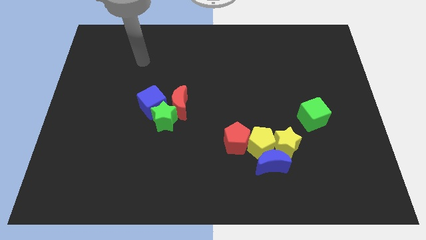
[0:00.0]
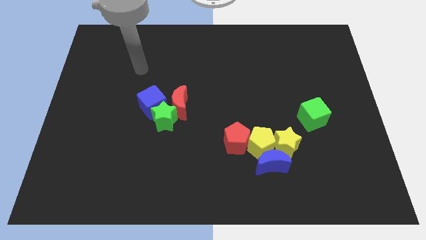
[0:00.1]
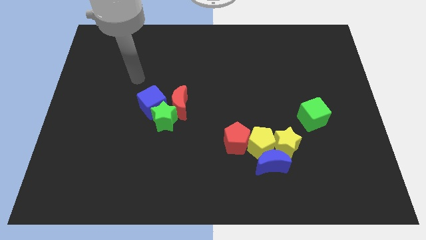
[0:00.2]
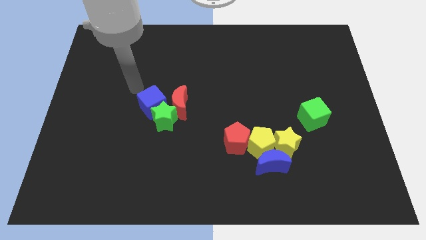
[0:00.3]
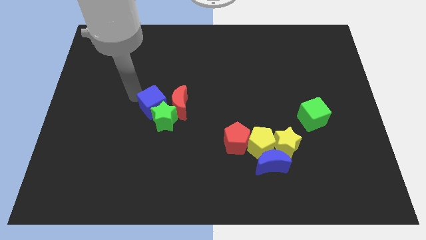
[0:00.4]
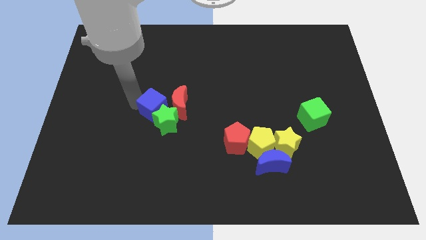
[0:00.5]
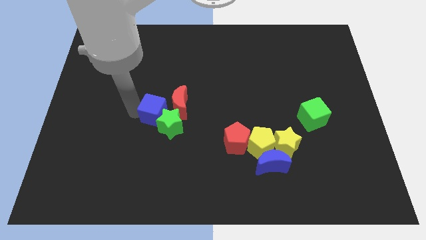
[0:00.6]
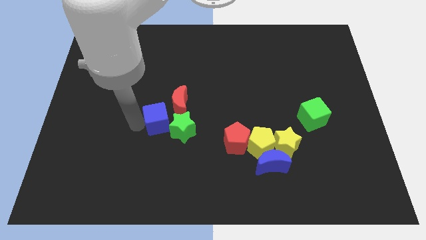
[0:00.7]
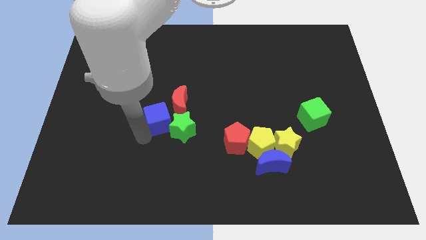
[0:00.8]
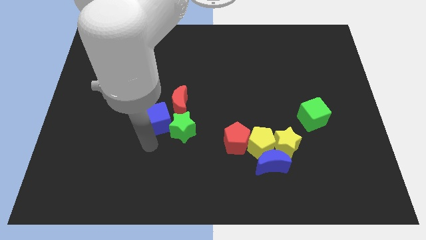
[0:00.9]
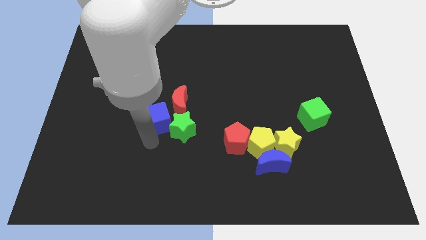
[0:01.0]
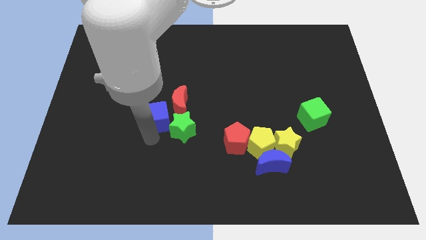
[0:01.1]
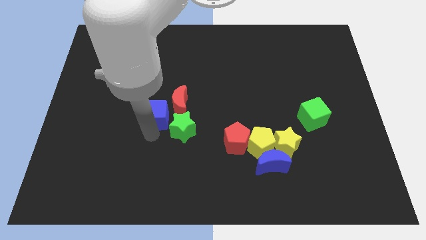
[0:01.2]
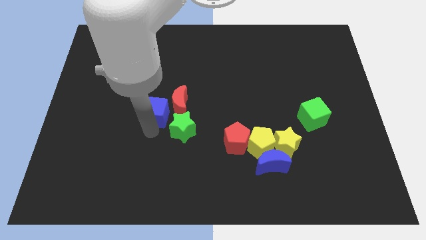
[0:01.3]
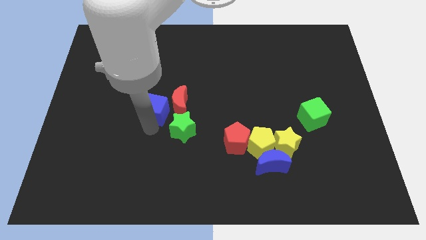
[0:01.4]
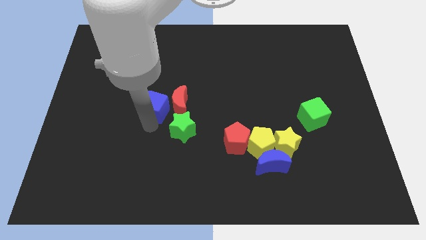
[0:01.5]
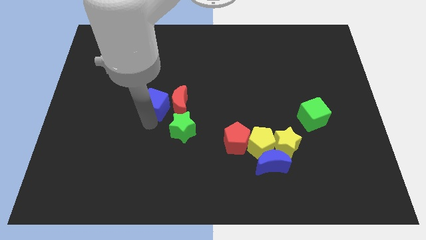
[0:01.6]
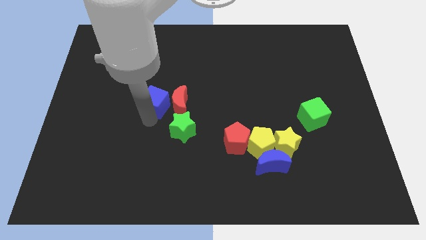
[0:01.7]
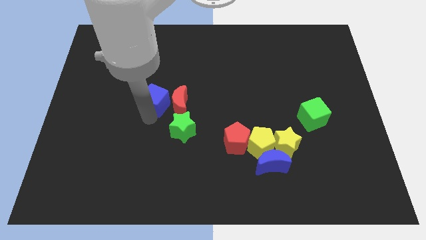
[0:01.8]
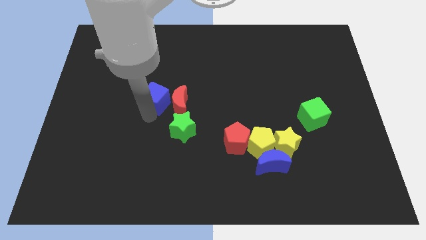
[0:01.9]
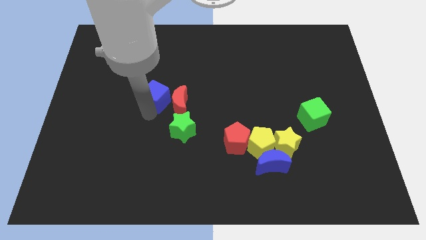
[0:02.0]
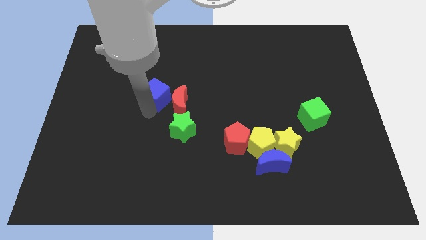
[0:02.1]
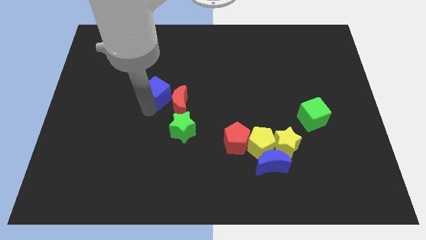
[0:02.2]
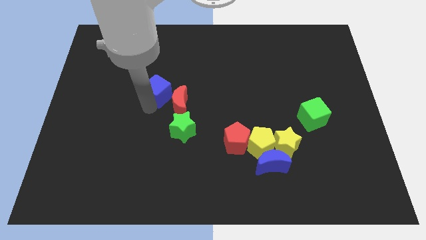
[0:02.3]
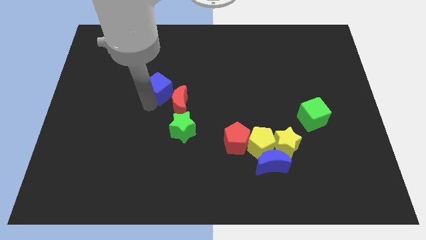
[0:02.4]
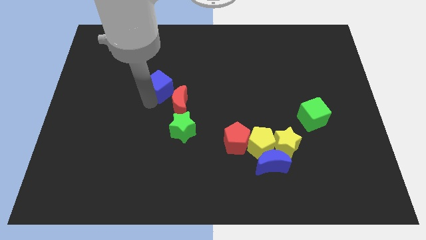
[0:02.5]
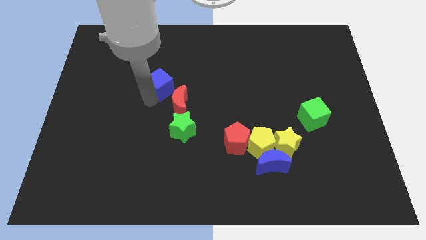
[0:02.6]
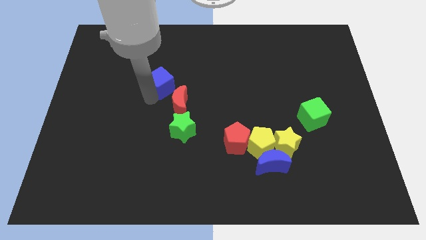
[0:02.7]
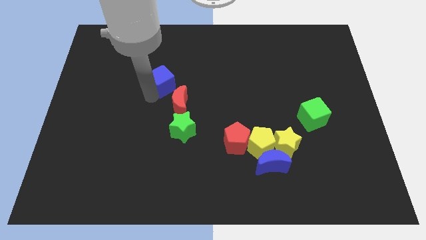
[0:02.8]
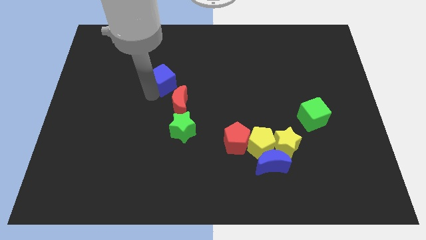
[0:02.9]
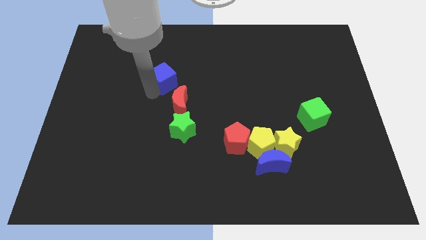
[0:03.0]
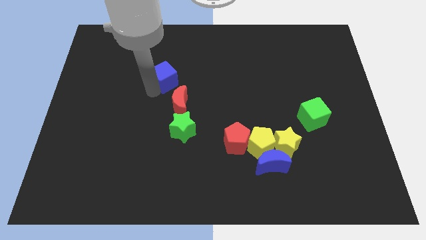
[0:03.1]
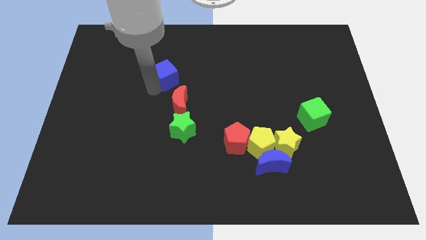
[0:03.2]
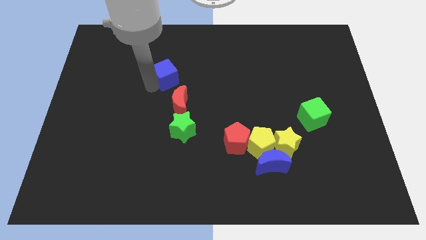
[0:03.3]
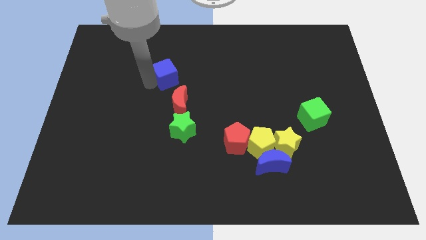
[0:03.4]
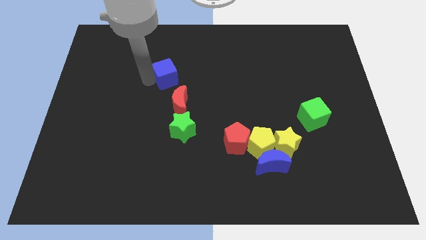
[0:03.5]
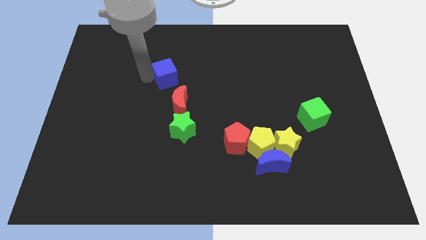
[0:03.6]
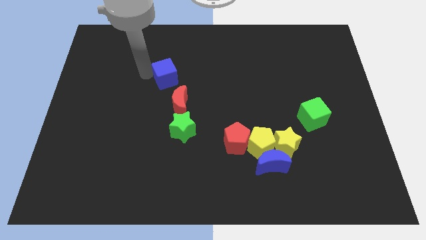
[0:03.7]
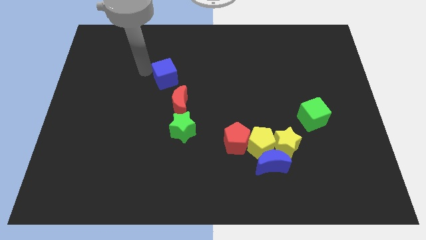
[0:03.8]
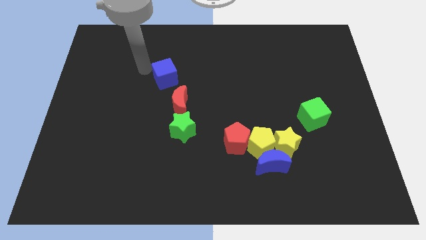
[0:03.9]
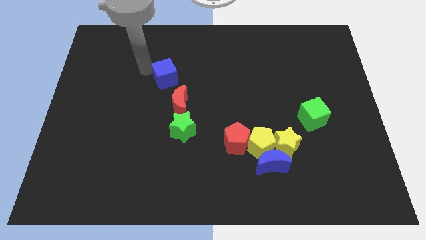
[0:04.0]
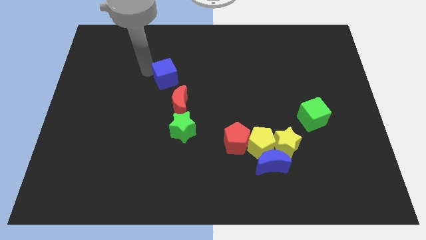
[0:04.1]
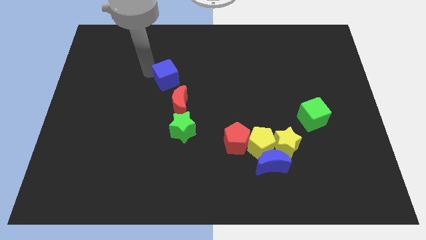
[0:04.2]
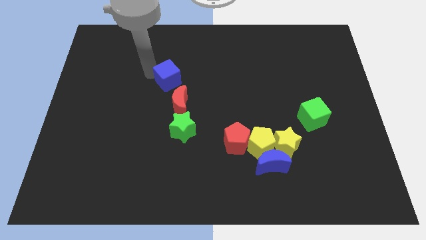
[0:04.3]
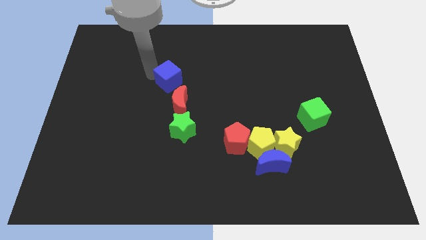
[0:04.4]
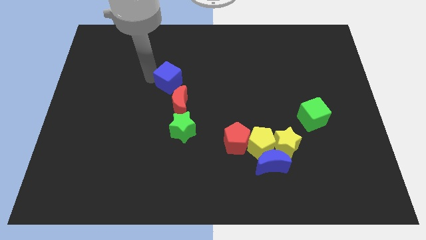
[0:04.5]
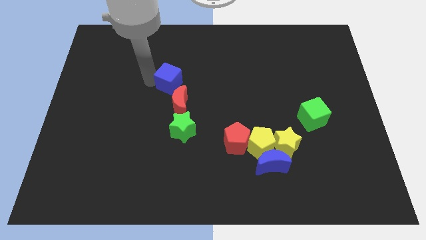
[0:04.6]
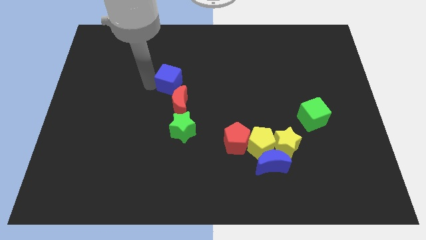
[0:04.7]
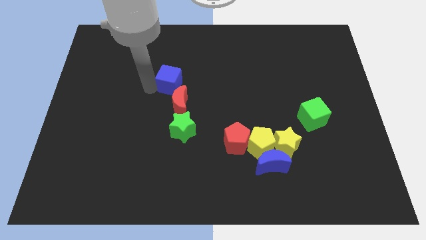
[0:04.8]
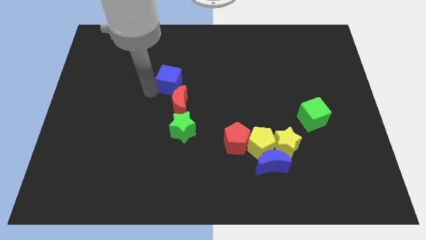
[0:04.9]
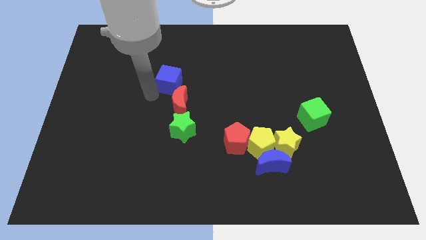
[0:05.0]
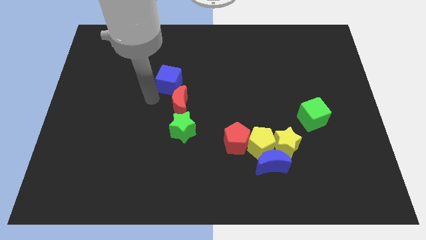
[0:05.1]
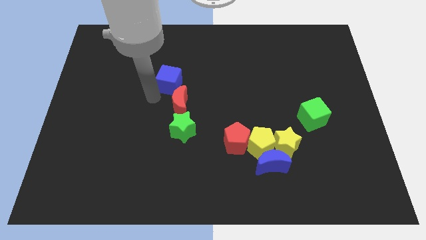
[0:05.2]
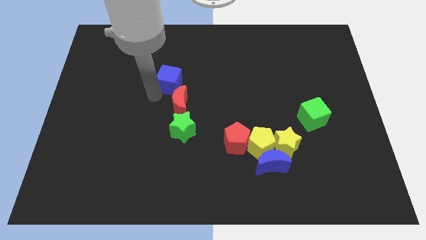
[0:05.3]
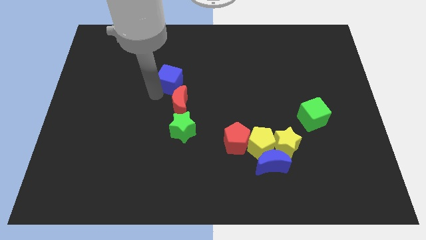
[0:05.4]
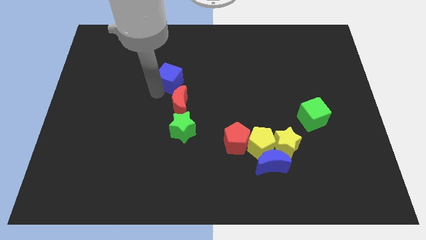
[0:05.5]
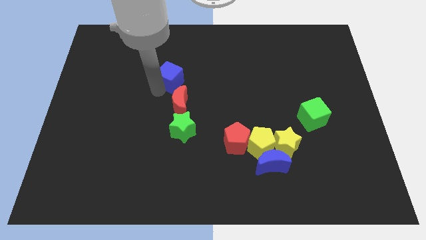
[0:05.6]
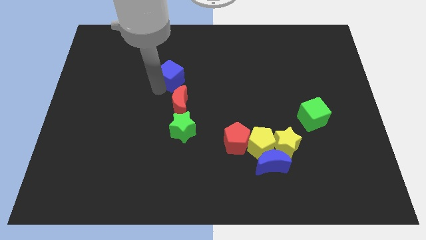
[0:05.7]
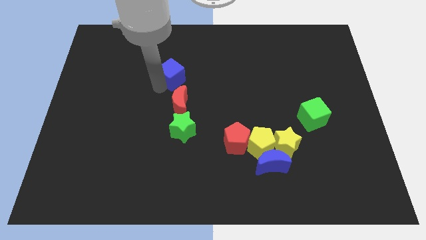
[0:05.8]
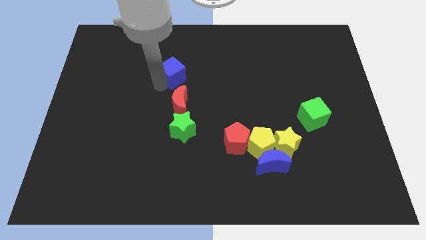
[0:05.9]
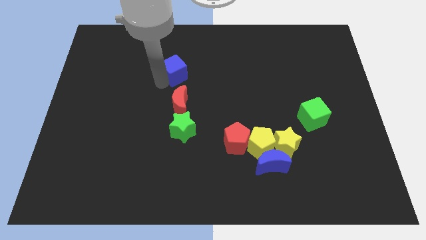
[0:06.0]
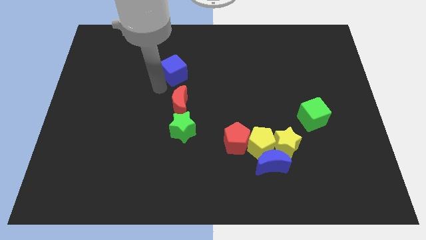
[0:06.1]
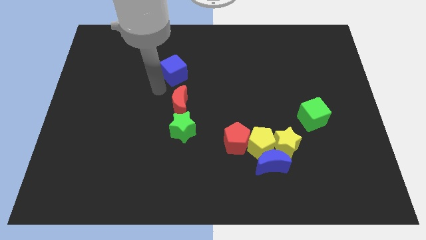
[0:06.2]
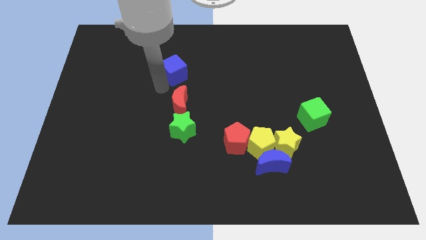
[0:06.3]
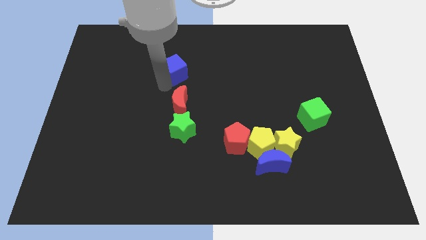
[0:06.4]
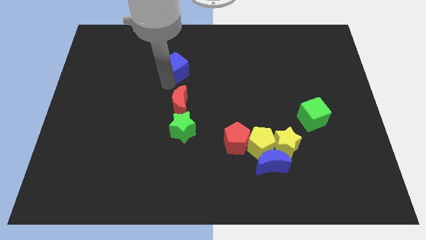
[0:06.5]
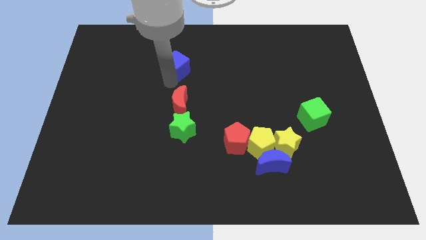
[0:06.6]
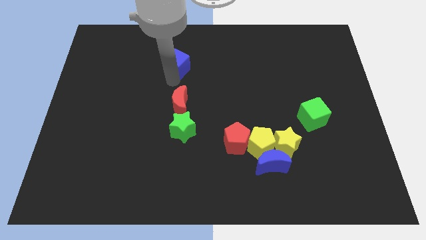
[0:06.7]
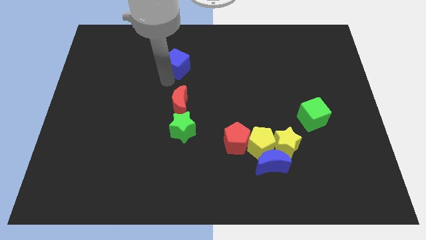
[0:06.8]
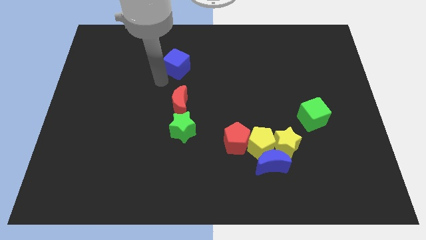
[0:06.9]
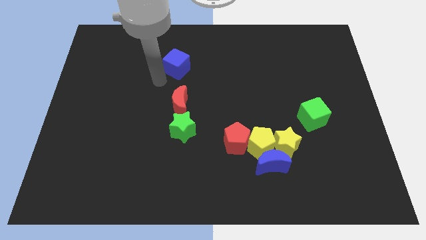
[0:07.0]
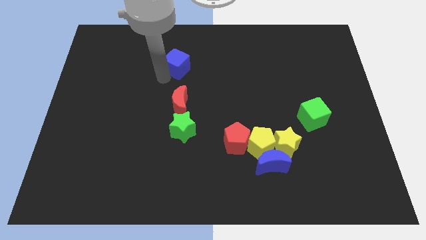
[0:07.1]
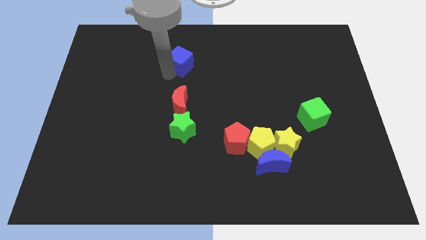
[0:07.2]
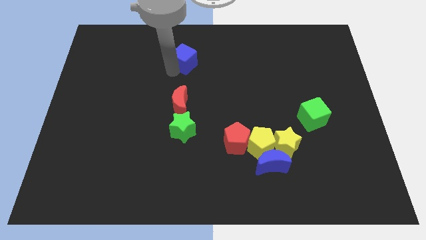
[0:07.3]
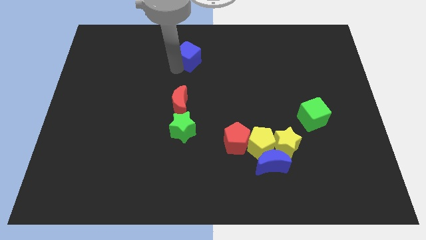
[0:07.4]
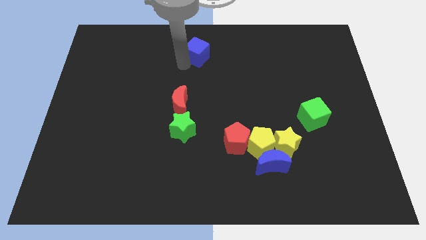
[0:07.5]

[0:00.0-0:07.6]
move the blue cube to the top
